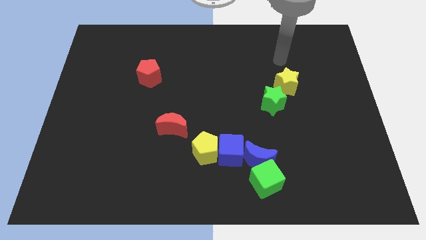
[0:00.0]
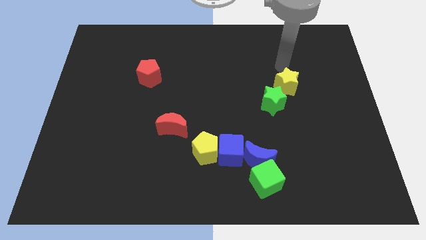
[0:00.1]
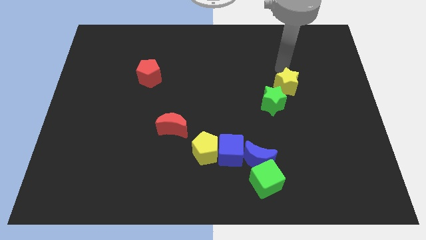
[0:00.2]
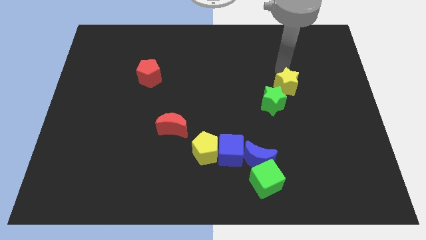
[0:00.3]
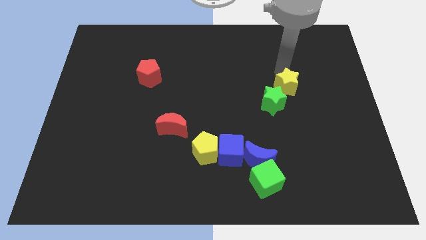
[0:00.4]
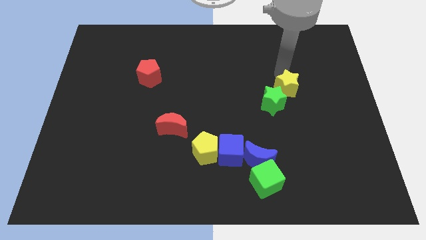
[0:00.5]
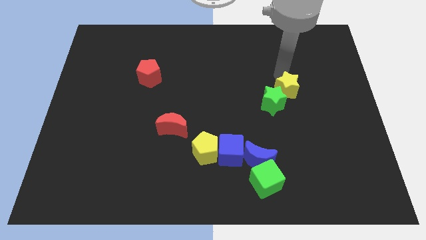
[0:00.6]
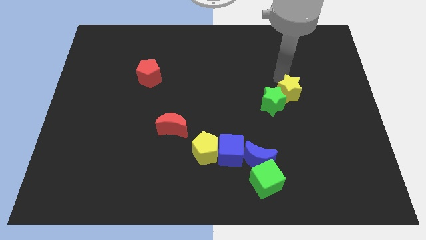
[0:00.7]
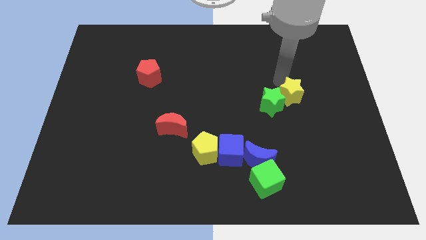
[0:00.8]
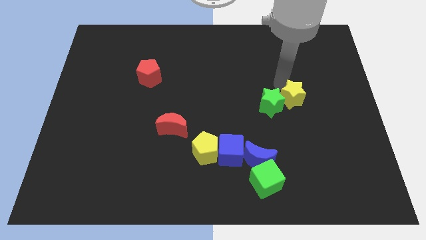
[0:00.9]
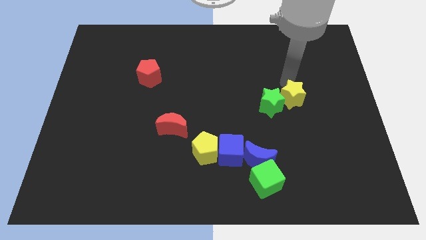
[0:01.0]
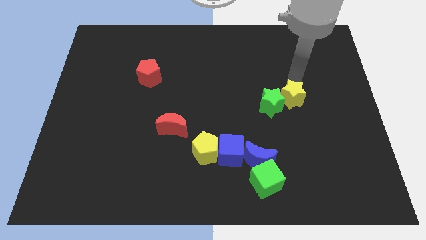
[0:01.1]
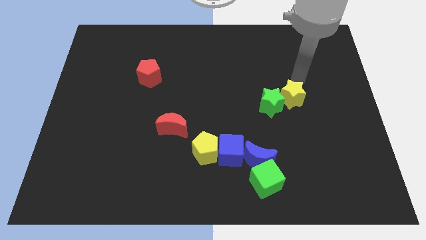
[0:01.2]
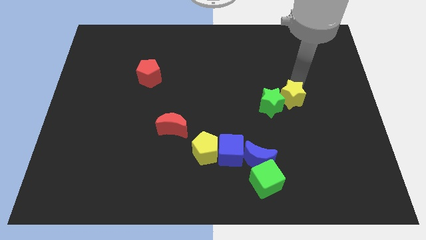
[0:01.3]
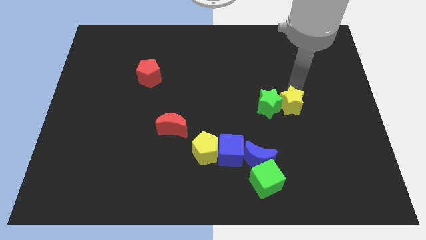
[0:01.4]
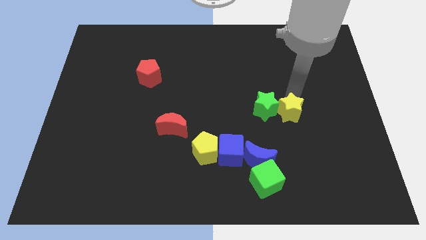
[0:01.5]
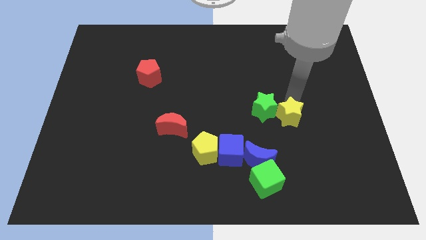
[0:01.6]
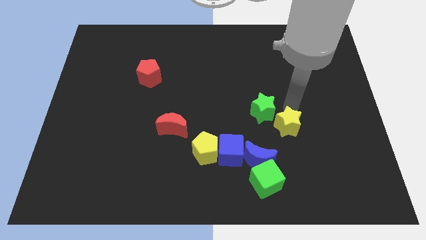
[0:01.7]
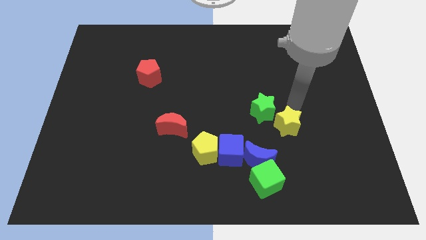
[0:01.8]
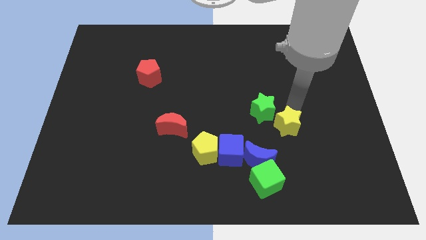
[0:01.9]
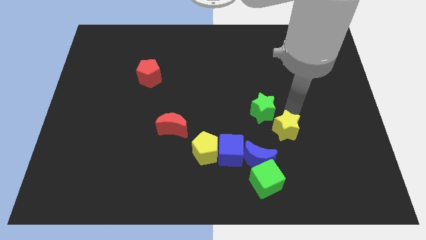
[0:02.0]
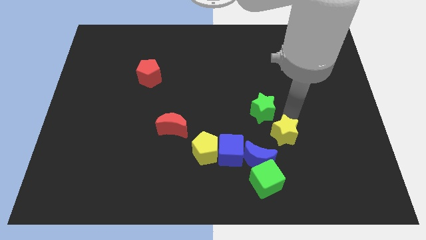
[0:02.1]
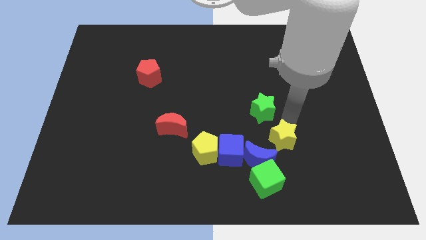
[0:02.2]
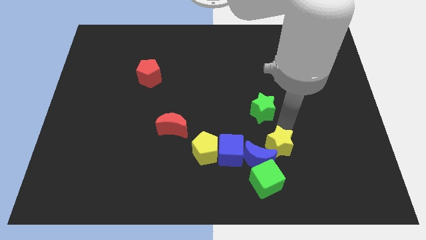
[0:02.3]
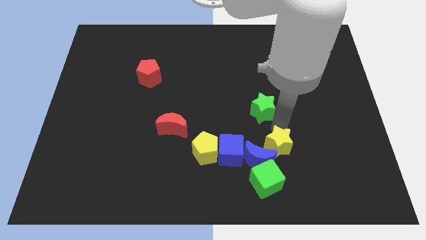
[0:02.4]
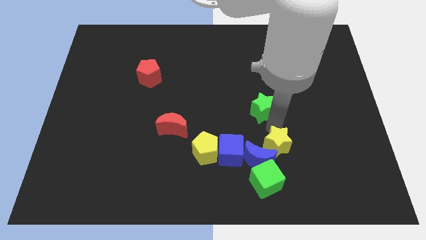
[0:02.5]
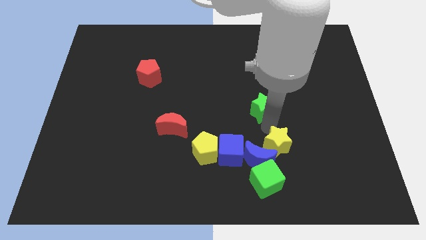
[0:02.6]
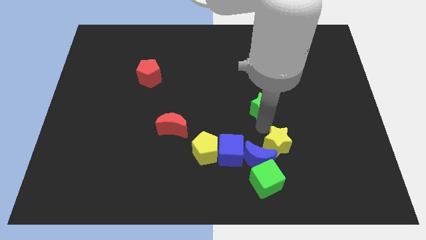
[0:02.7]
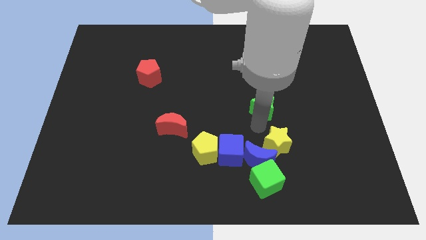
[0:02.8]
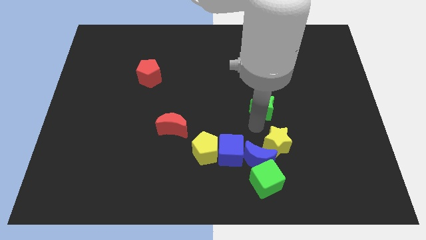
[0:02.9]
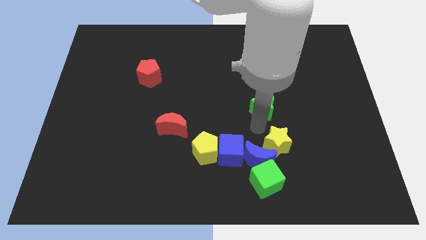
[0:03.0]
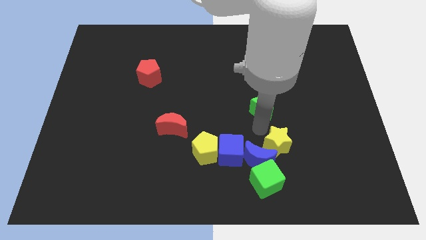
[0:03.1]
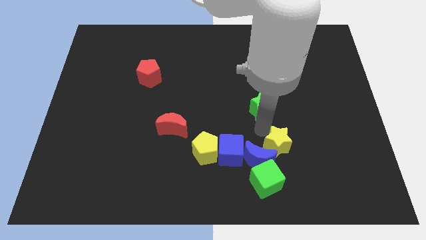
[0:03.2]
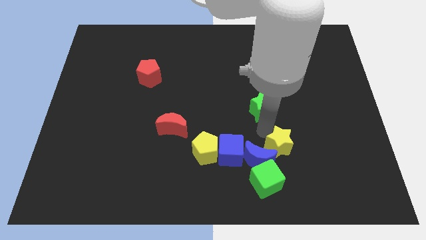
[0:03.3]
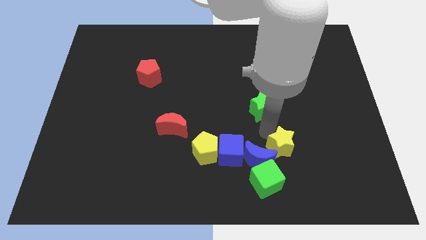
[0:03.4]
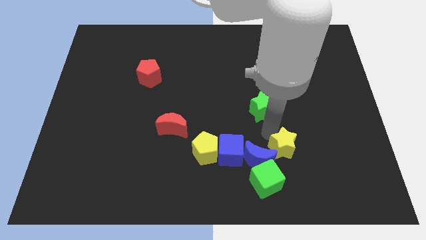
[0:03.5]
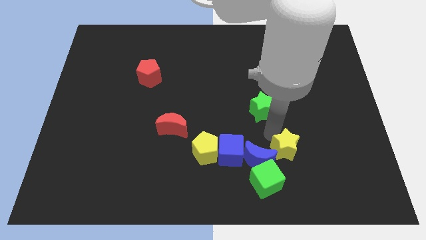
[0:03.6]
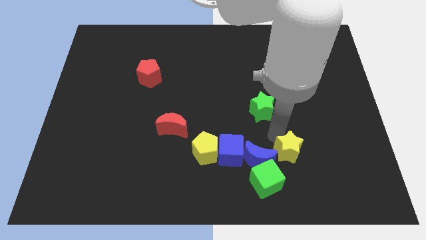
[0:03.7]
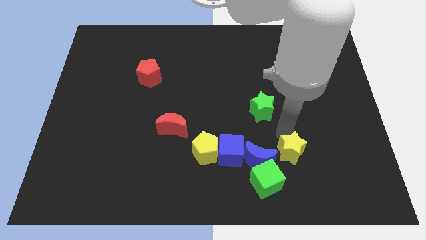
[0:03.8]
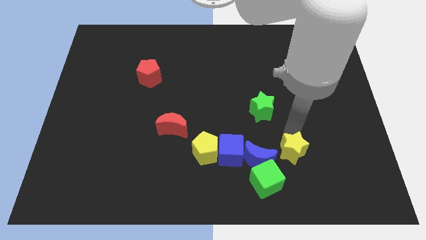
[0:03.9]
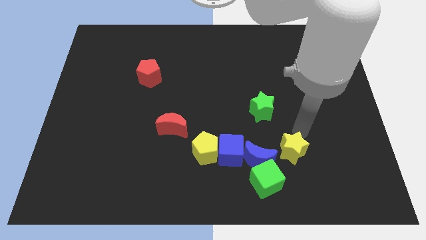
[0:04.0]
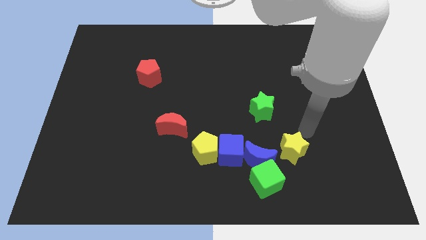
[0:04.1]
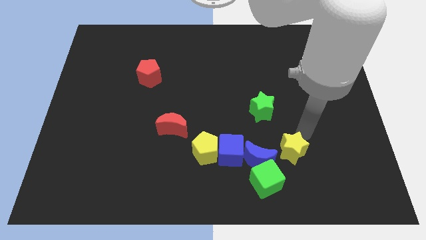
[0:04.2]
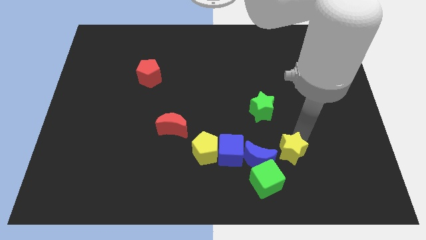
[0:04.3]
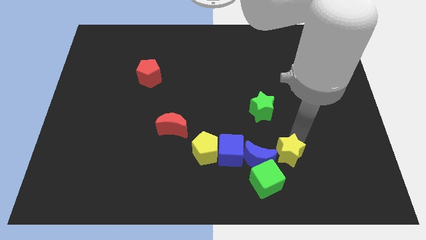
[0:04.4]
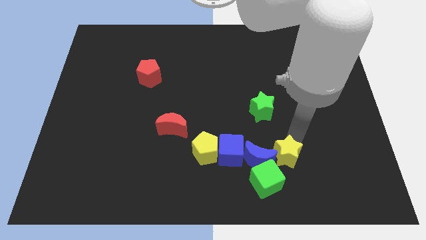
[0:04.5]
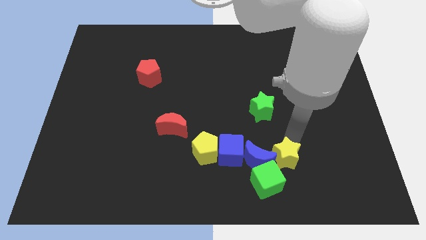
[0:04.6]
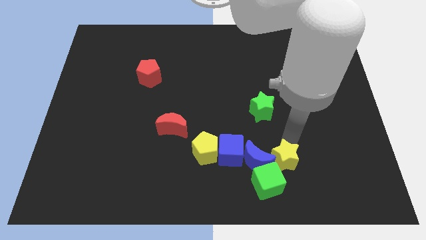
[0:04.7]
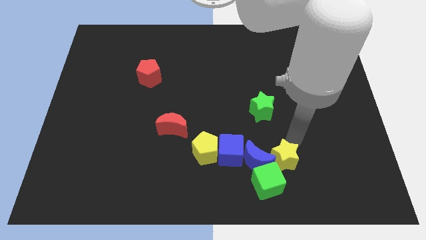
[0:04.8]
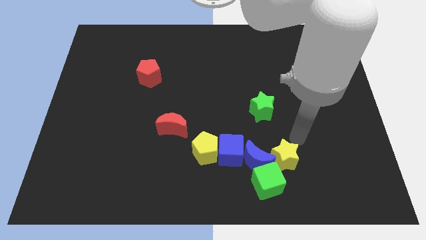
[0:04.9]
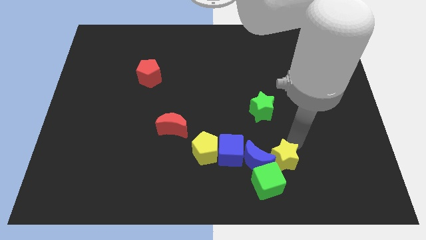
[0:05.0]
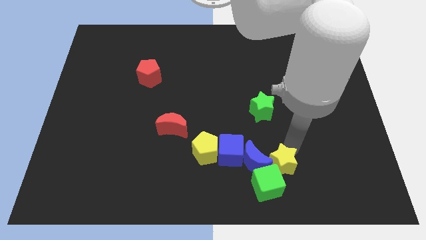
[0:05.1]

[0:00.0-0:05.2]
slide the yellow star next to the green cube

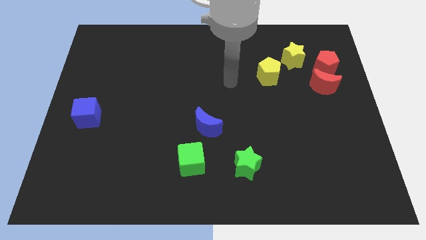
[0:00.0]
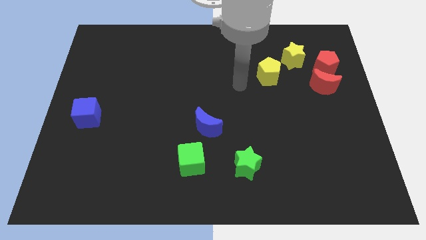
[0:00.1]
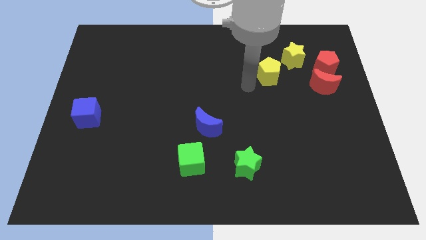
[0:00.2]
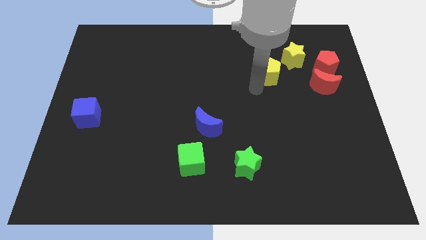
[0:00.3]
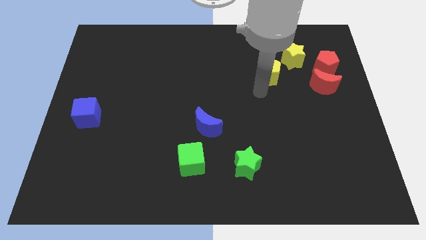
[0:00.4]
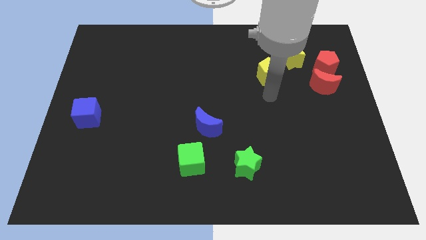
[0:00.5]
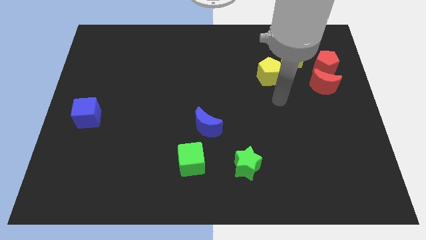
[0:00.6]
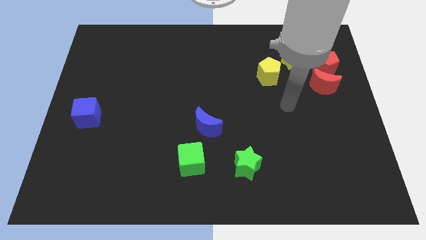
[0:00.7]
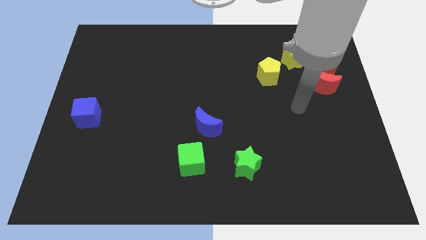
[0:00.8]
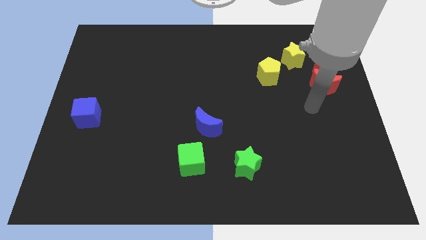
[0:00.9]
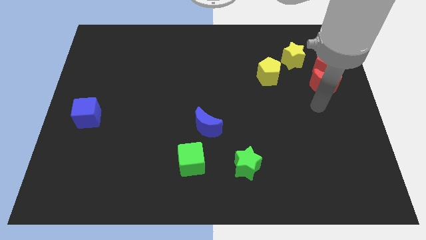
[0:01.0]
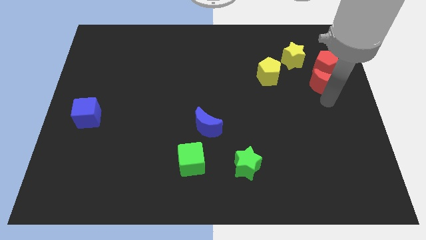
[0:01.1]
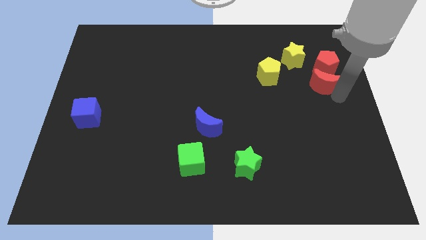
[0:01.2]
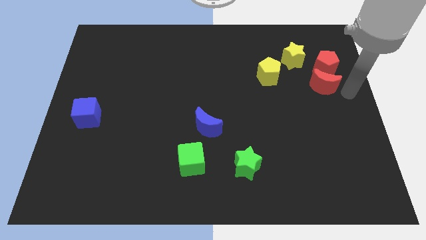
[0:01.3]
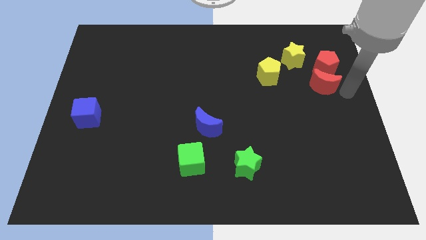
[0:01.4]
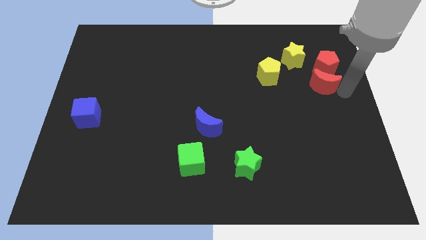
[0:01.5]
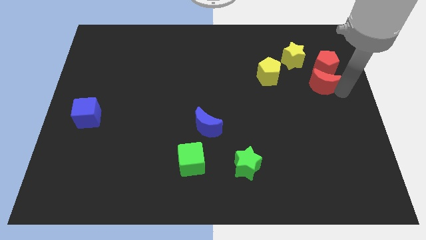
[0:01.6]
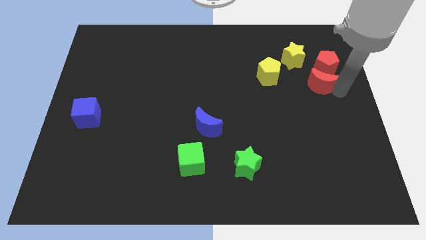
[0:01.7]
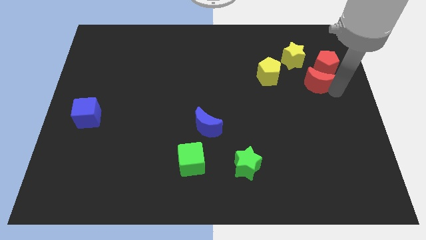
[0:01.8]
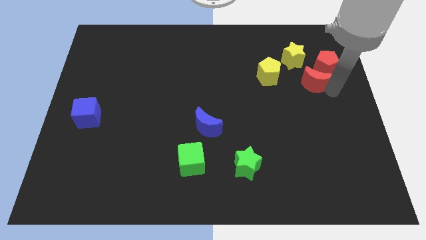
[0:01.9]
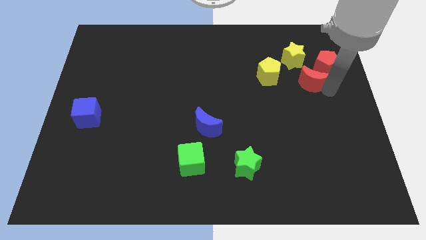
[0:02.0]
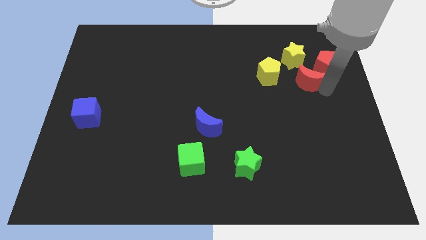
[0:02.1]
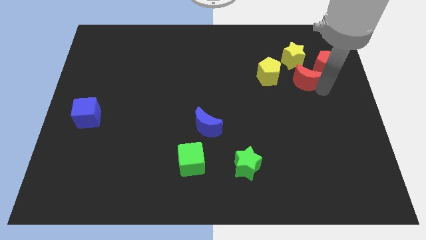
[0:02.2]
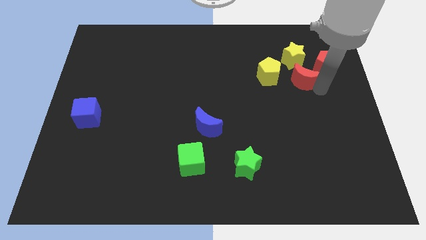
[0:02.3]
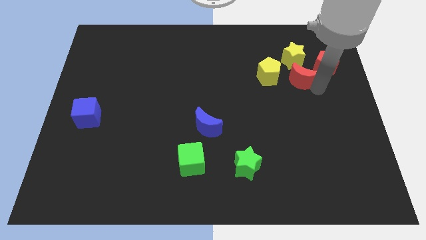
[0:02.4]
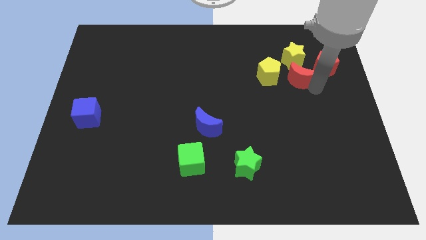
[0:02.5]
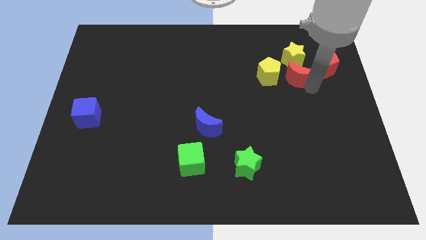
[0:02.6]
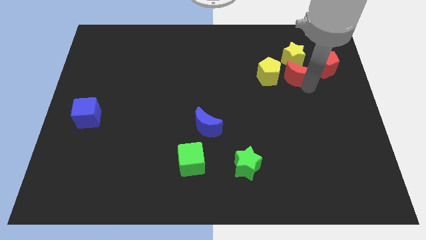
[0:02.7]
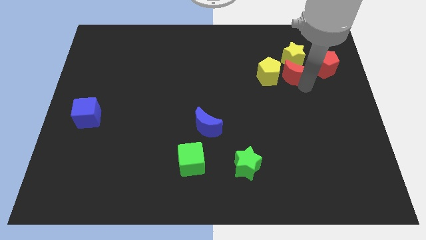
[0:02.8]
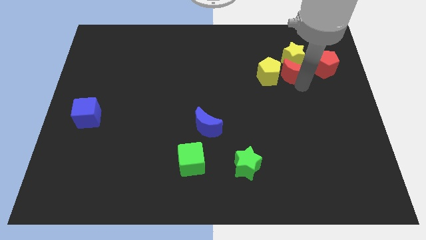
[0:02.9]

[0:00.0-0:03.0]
slide the red moon towards the yellow pentagon
